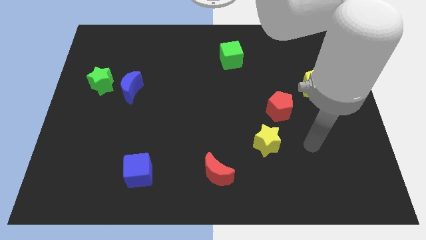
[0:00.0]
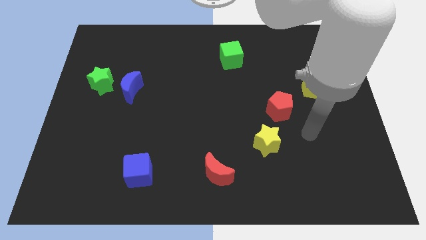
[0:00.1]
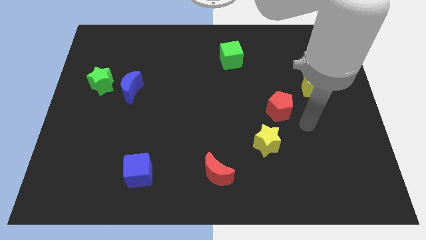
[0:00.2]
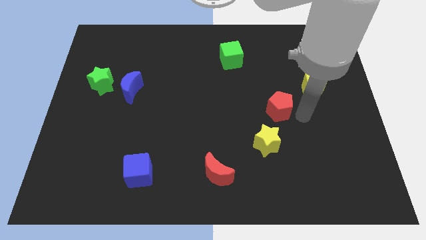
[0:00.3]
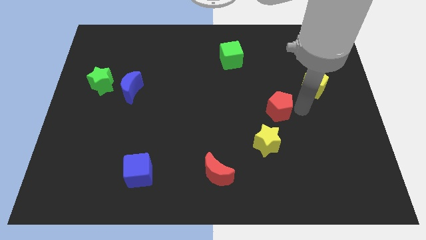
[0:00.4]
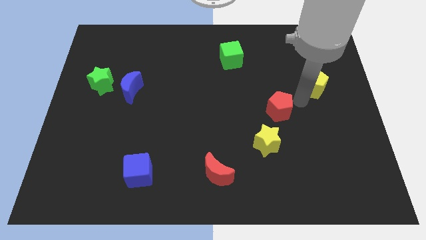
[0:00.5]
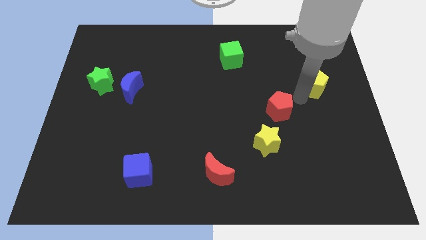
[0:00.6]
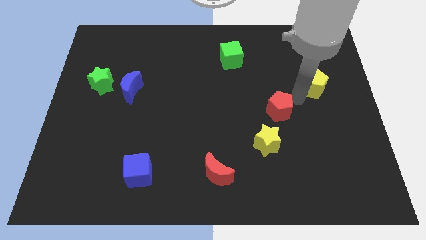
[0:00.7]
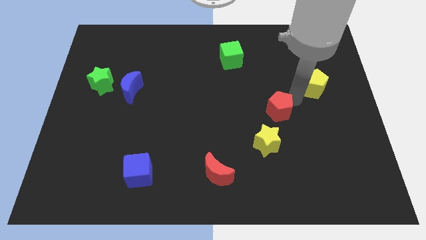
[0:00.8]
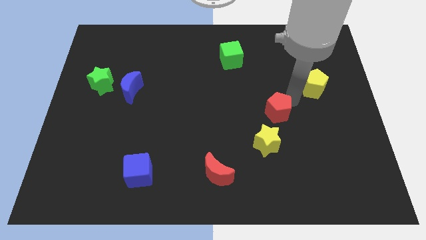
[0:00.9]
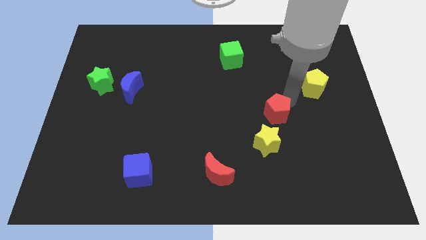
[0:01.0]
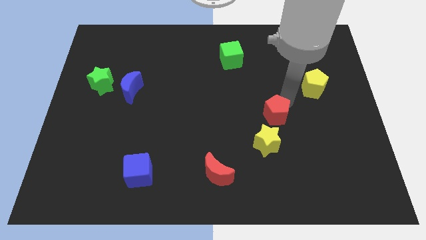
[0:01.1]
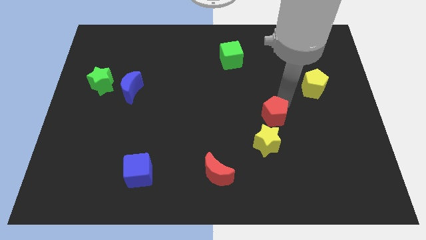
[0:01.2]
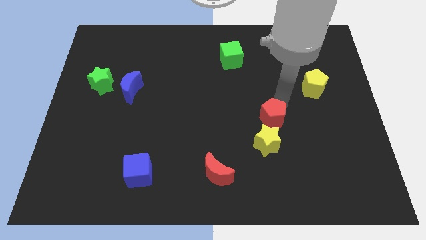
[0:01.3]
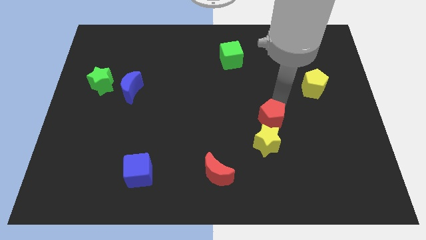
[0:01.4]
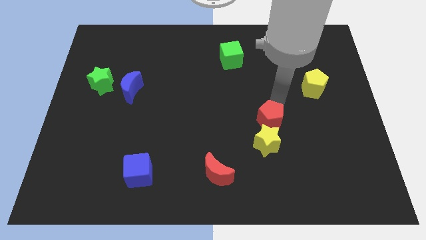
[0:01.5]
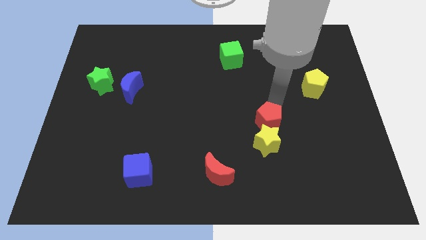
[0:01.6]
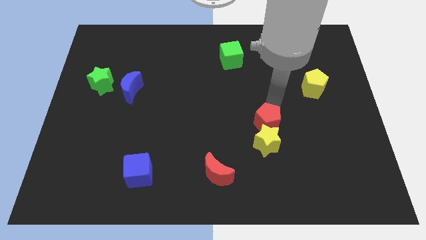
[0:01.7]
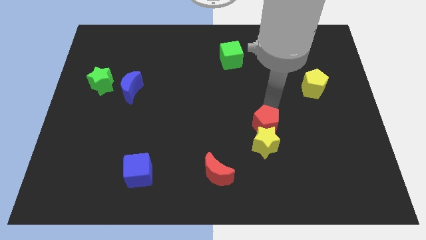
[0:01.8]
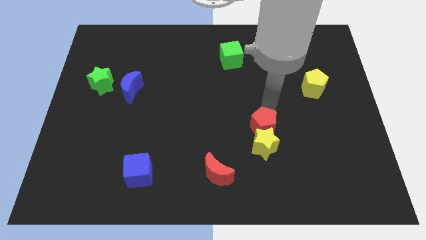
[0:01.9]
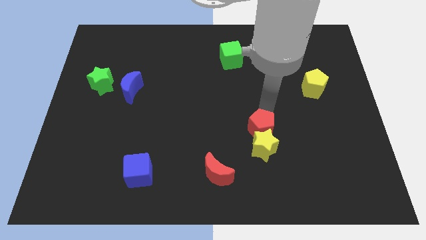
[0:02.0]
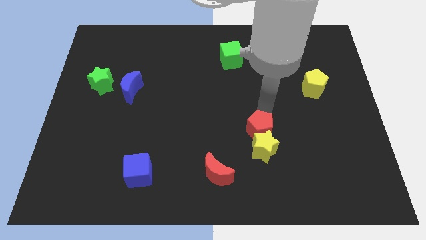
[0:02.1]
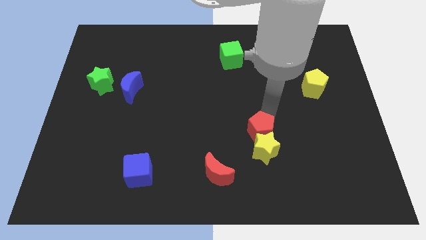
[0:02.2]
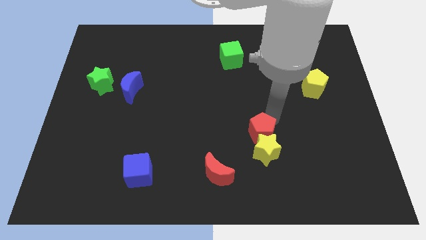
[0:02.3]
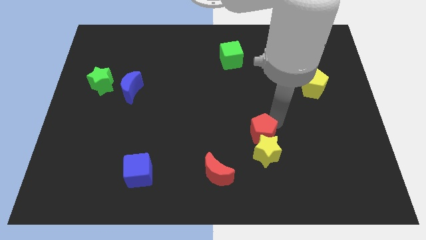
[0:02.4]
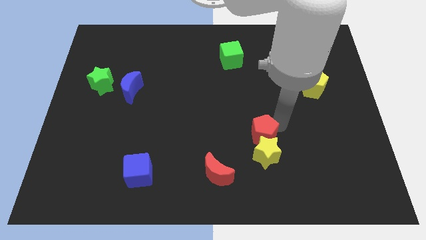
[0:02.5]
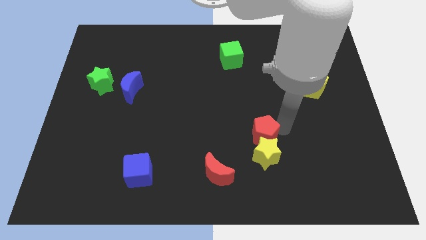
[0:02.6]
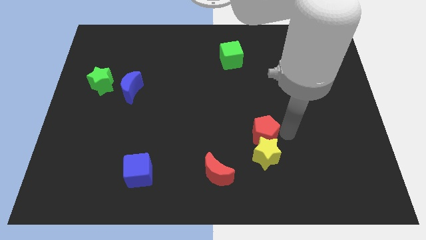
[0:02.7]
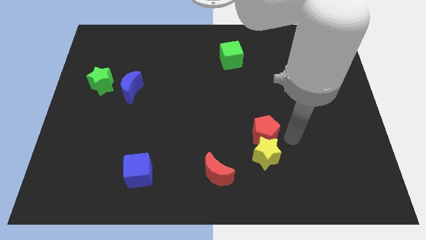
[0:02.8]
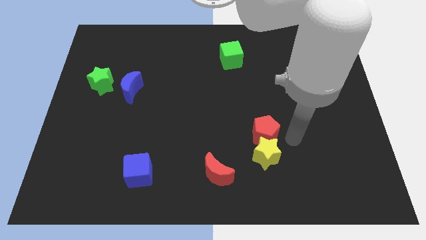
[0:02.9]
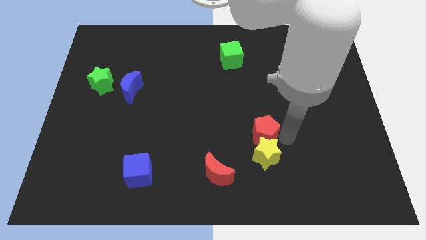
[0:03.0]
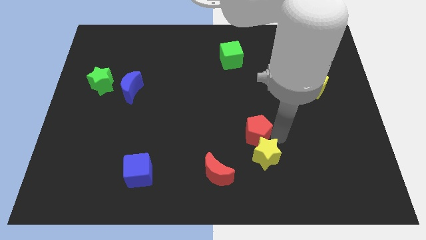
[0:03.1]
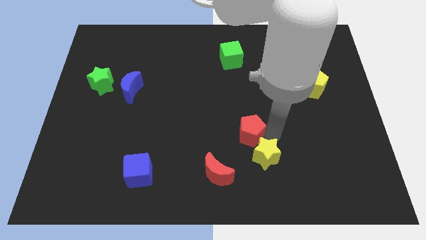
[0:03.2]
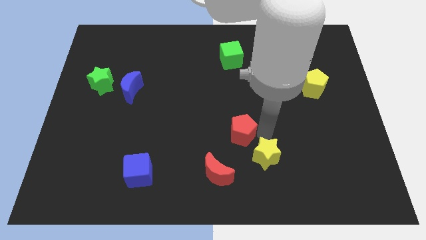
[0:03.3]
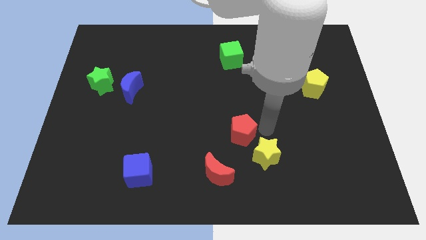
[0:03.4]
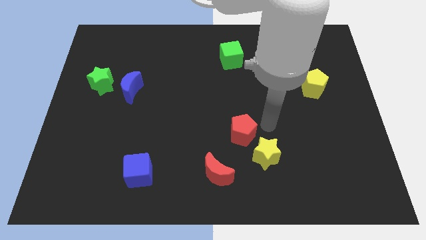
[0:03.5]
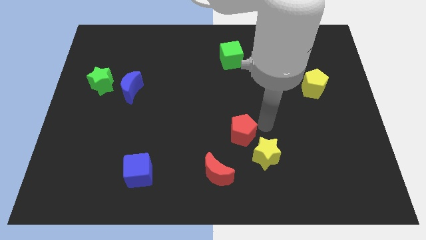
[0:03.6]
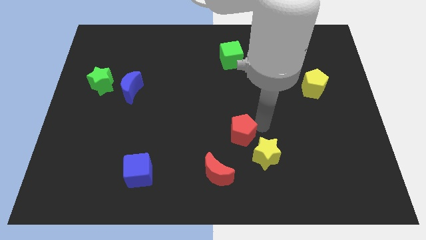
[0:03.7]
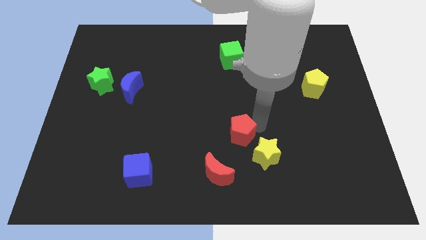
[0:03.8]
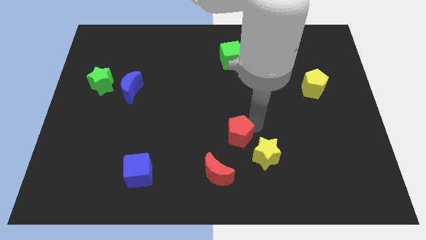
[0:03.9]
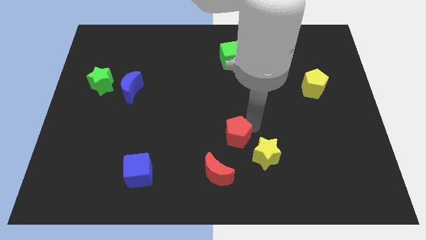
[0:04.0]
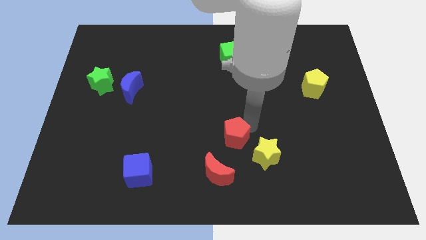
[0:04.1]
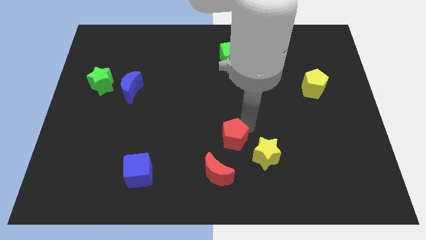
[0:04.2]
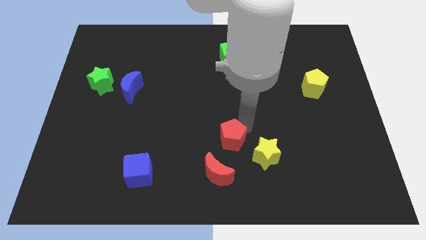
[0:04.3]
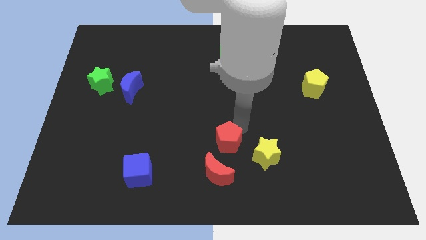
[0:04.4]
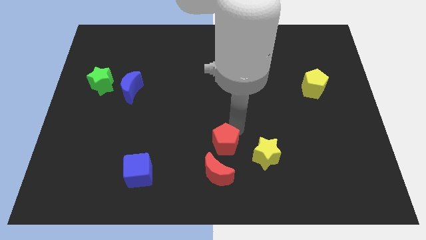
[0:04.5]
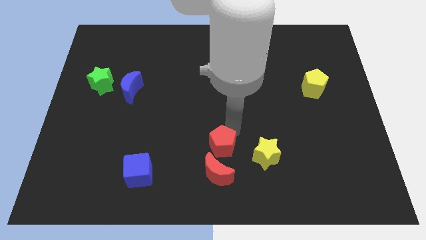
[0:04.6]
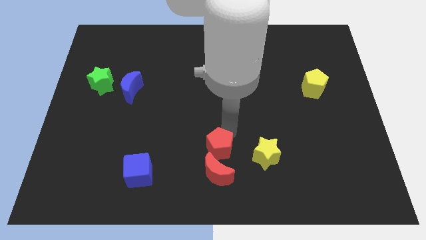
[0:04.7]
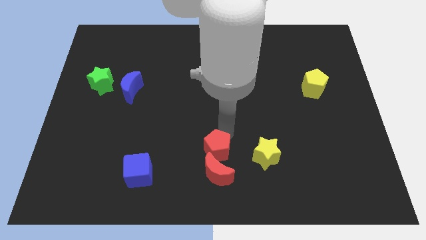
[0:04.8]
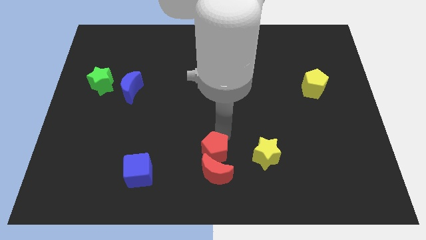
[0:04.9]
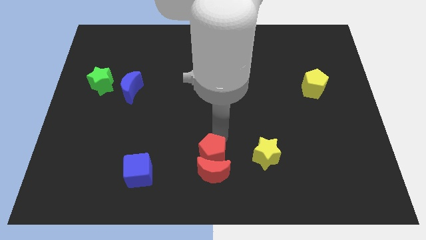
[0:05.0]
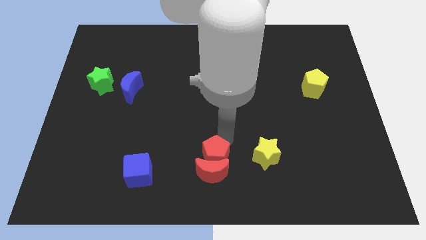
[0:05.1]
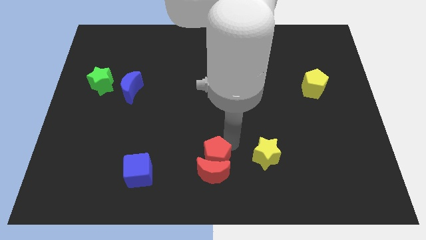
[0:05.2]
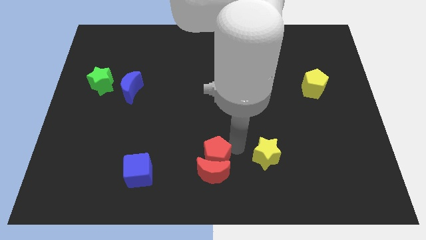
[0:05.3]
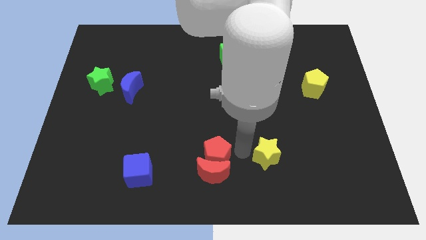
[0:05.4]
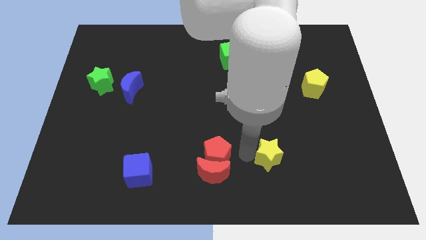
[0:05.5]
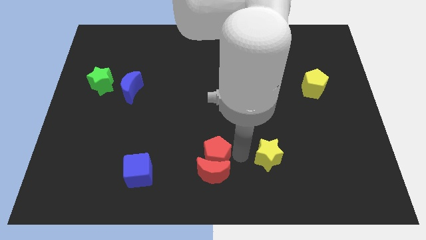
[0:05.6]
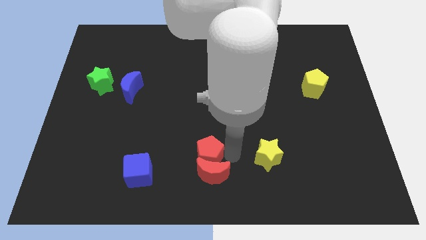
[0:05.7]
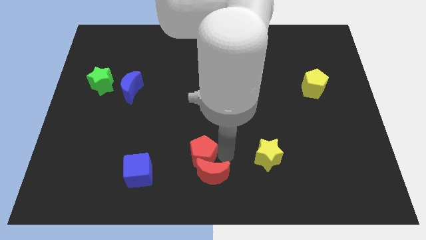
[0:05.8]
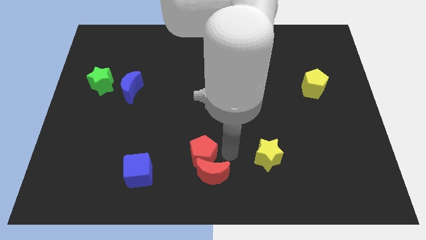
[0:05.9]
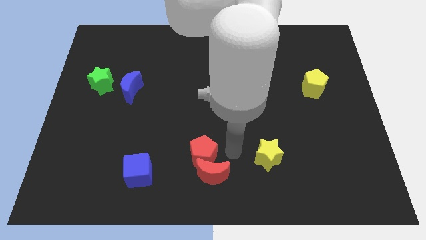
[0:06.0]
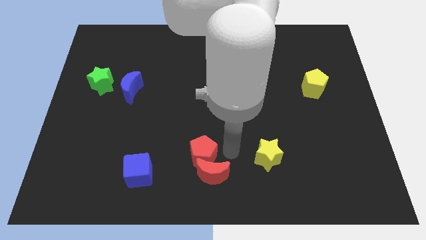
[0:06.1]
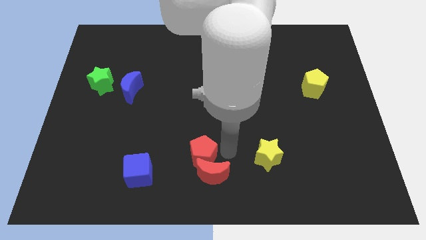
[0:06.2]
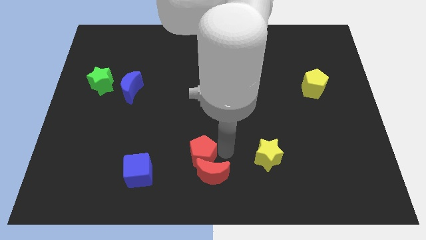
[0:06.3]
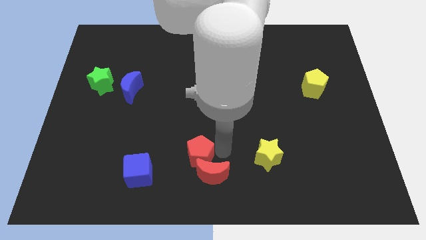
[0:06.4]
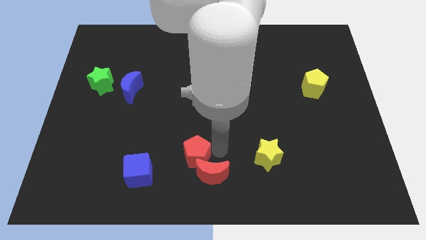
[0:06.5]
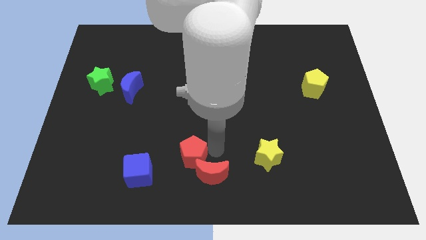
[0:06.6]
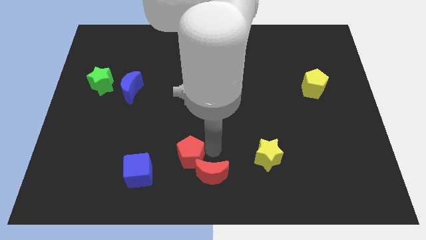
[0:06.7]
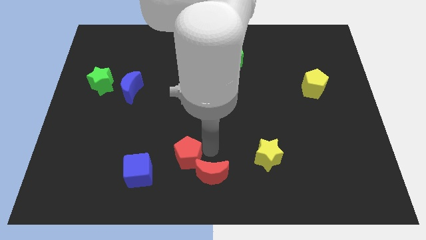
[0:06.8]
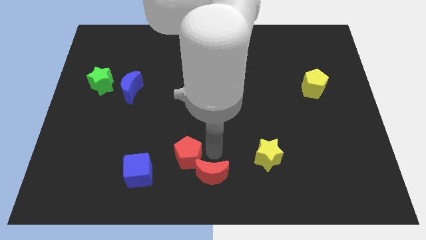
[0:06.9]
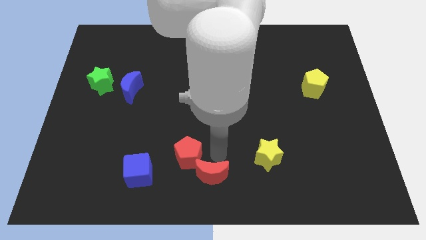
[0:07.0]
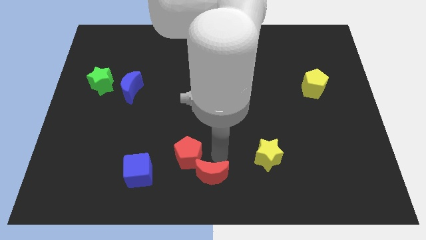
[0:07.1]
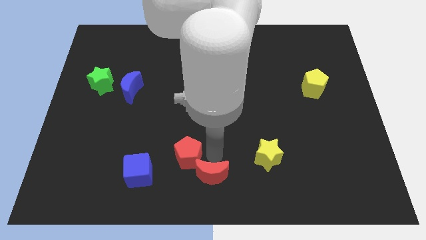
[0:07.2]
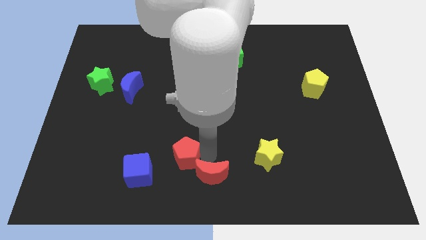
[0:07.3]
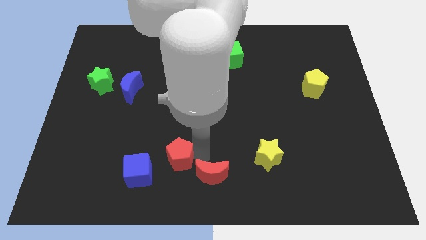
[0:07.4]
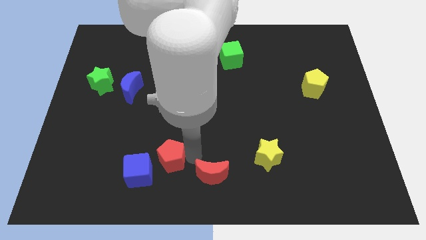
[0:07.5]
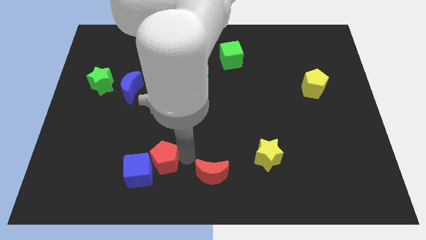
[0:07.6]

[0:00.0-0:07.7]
move the red pentagon next to the blue cube
